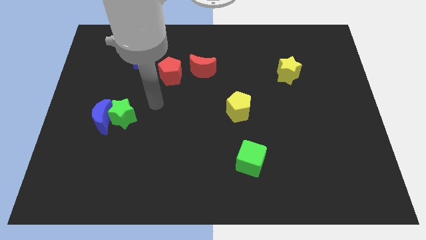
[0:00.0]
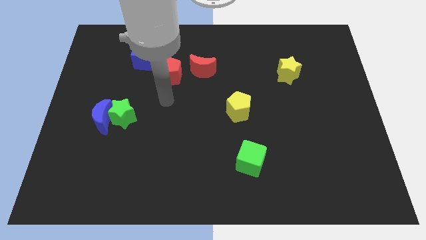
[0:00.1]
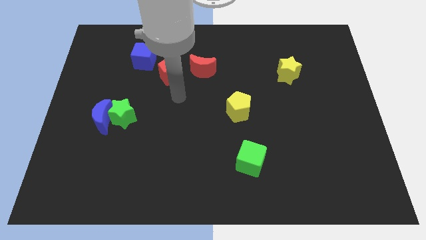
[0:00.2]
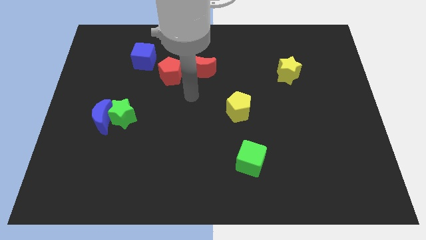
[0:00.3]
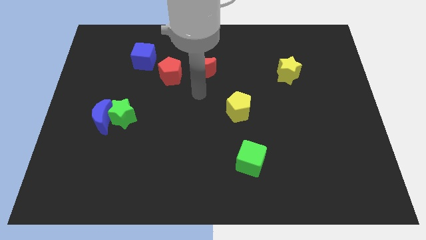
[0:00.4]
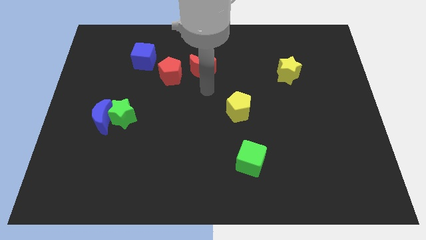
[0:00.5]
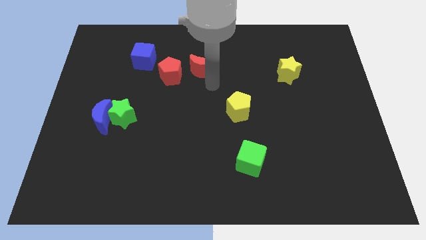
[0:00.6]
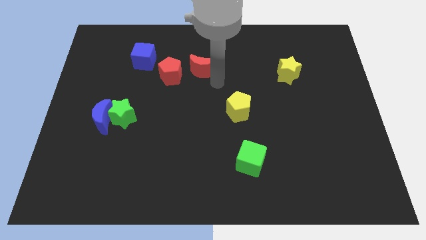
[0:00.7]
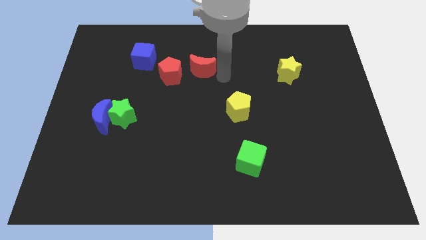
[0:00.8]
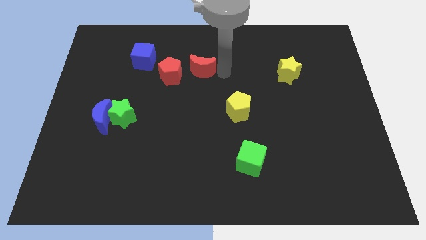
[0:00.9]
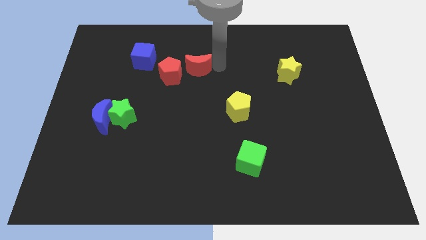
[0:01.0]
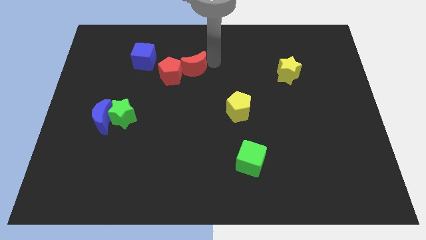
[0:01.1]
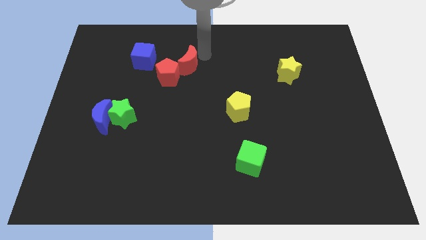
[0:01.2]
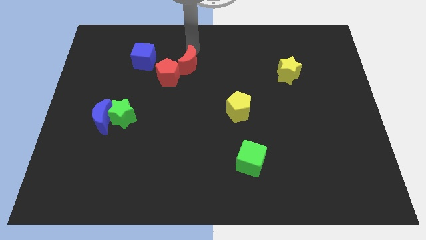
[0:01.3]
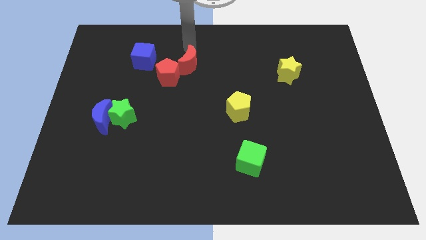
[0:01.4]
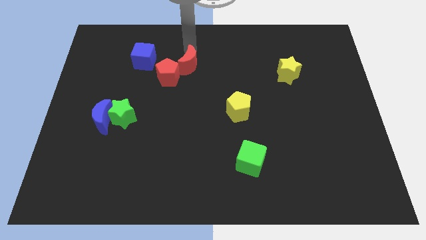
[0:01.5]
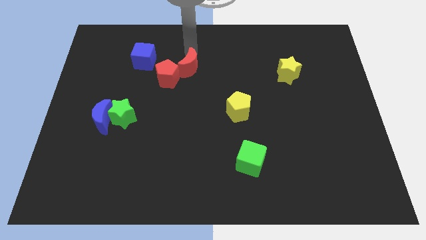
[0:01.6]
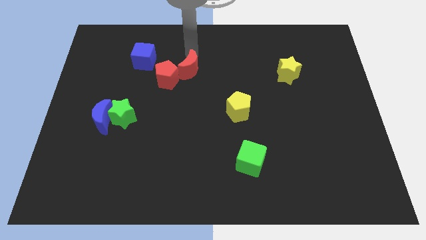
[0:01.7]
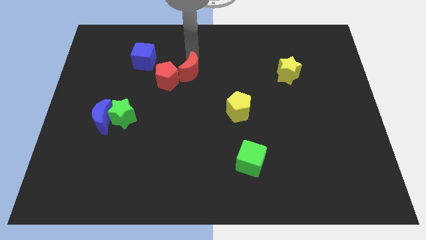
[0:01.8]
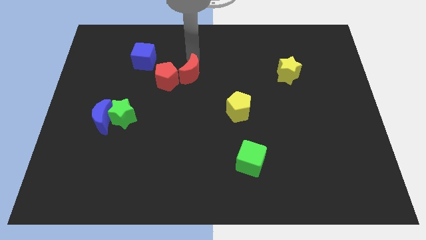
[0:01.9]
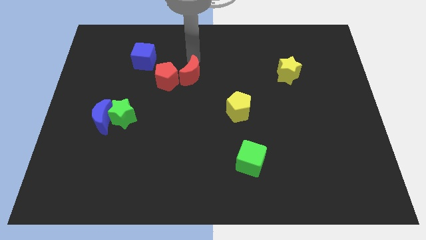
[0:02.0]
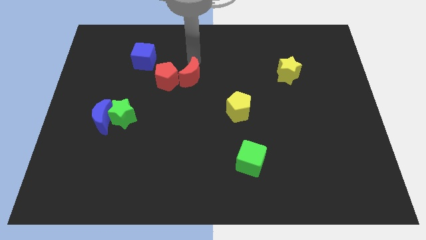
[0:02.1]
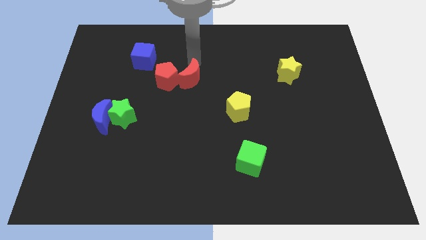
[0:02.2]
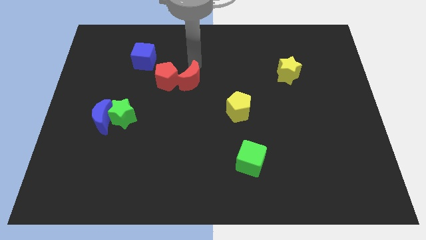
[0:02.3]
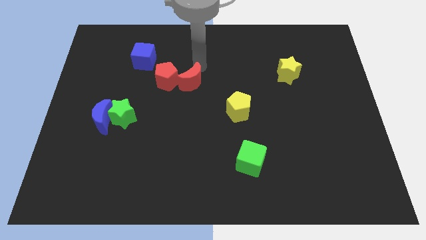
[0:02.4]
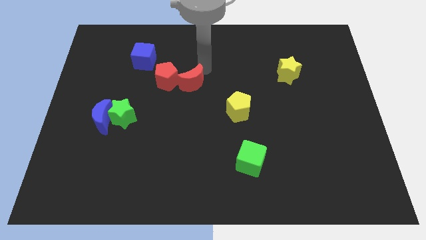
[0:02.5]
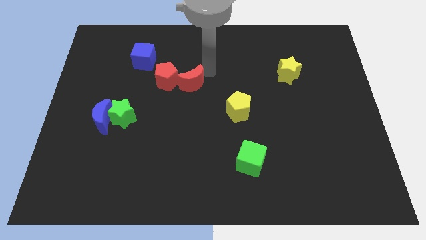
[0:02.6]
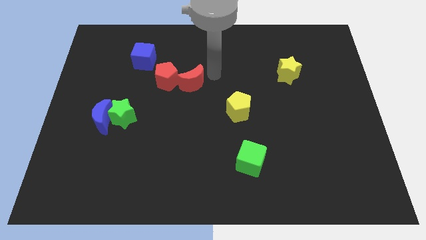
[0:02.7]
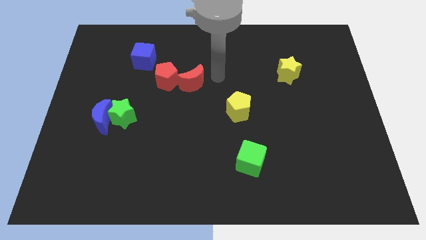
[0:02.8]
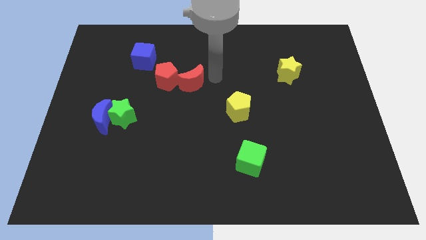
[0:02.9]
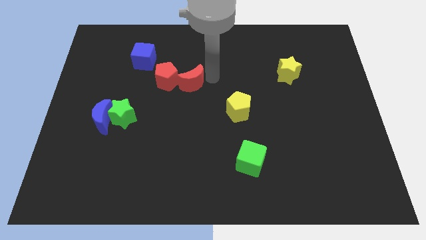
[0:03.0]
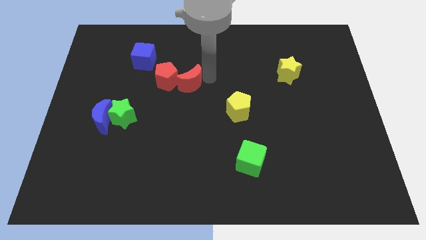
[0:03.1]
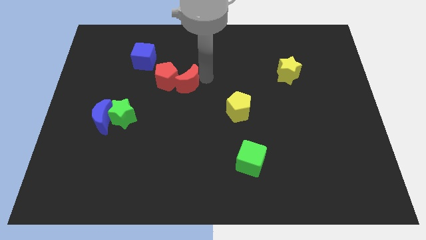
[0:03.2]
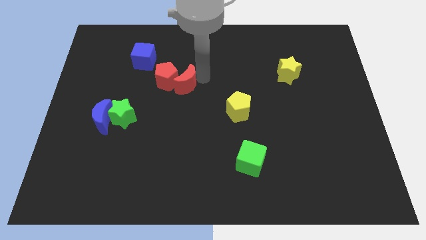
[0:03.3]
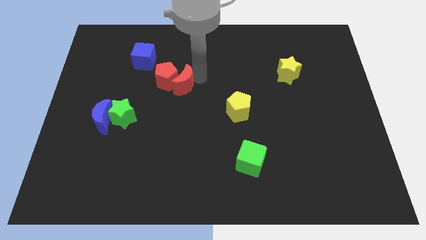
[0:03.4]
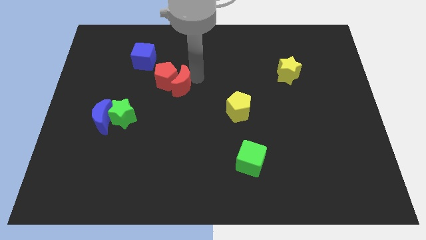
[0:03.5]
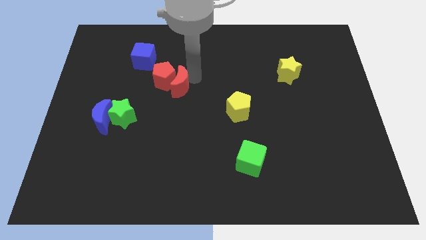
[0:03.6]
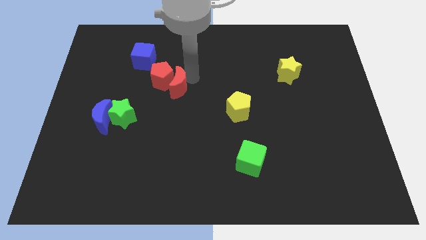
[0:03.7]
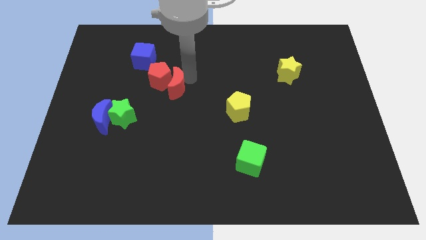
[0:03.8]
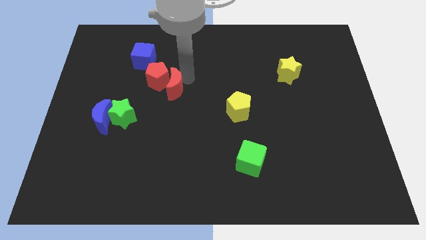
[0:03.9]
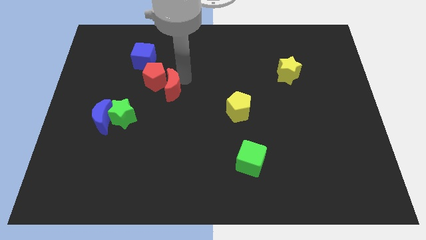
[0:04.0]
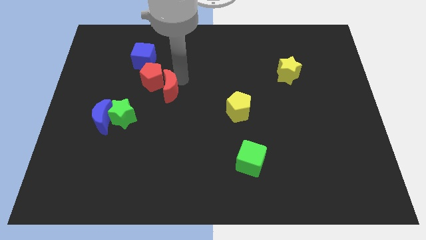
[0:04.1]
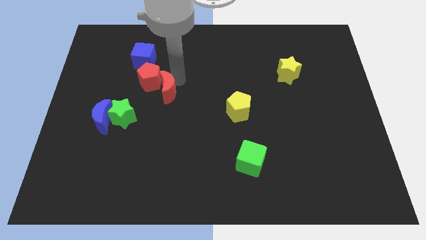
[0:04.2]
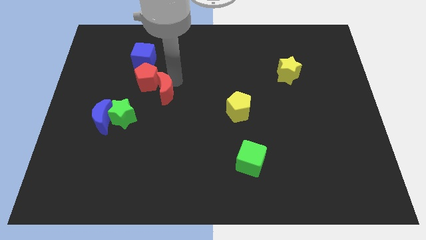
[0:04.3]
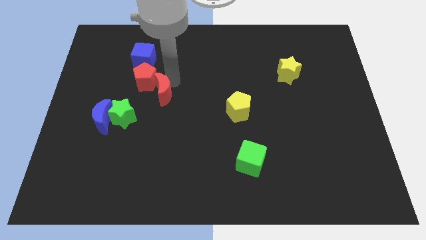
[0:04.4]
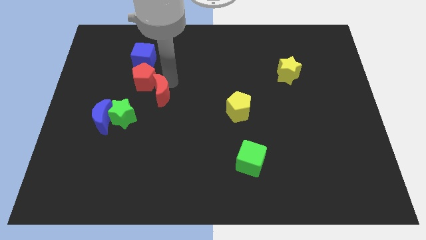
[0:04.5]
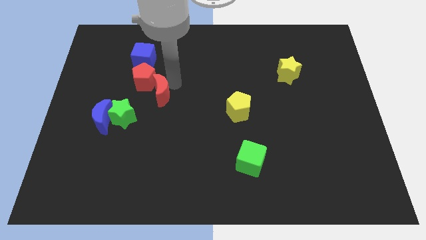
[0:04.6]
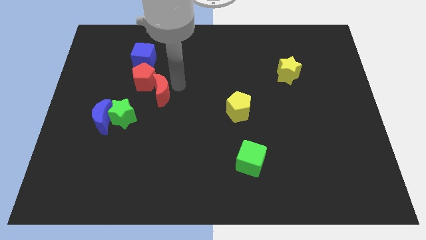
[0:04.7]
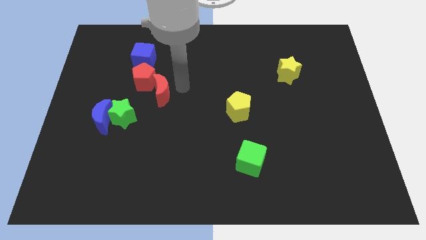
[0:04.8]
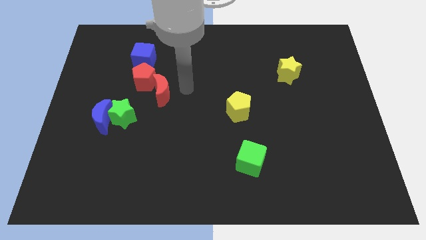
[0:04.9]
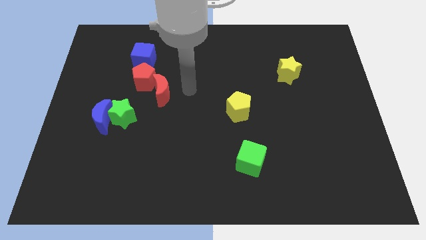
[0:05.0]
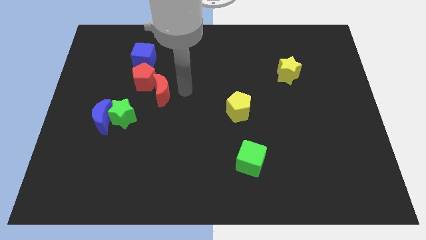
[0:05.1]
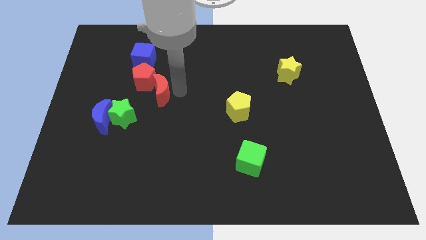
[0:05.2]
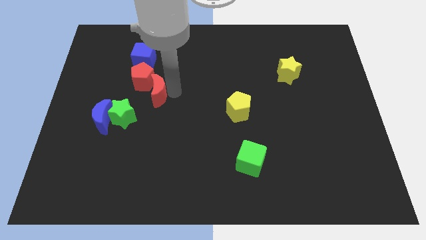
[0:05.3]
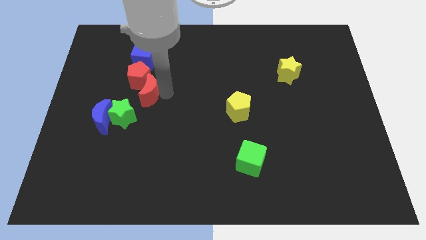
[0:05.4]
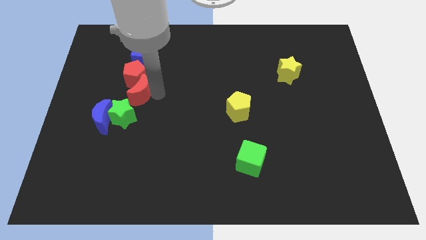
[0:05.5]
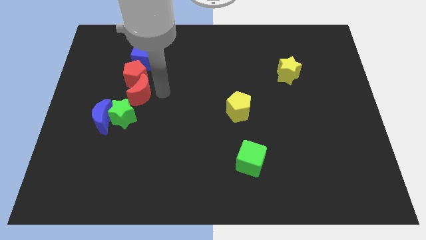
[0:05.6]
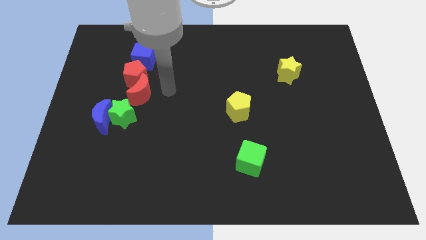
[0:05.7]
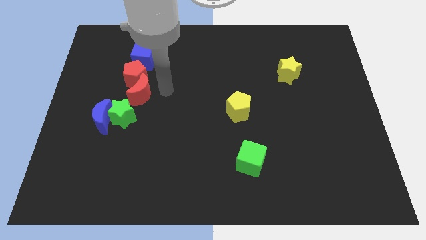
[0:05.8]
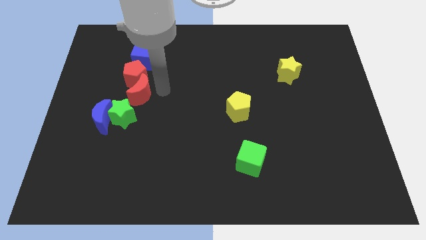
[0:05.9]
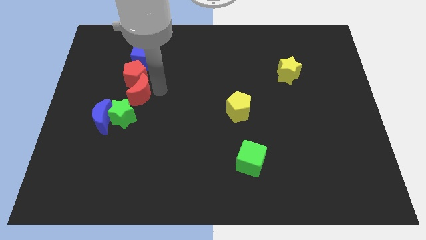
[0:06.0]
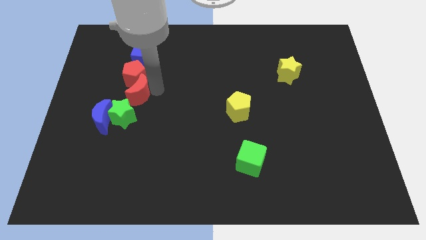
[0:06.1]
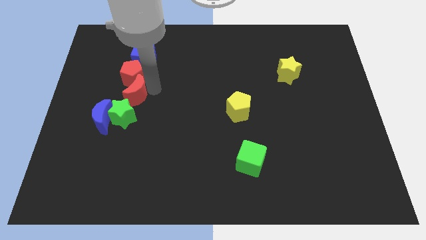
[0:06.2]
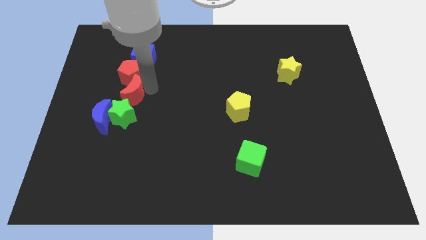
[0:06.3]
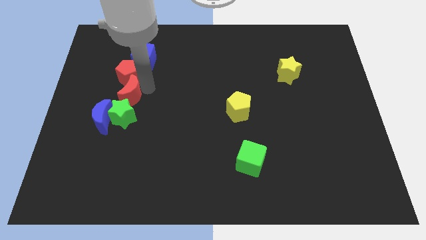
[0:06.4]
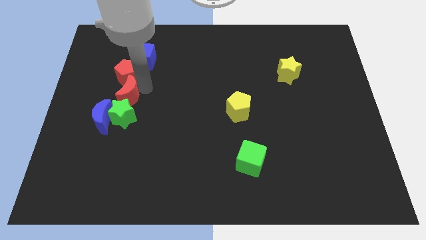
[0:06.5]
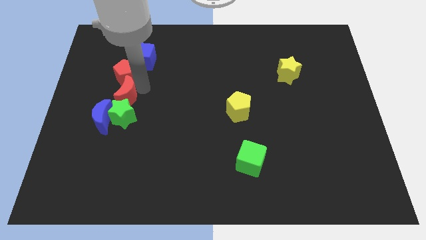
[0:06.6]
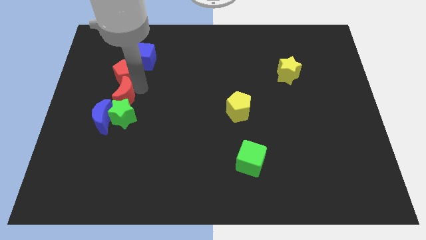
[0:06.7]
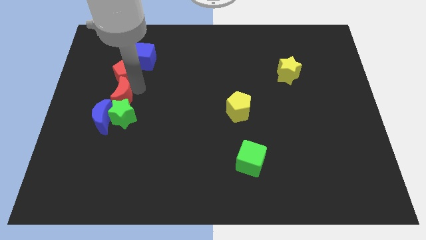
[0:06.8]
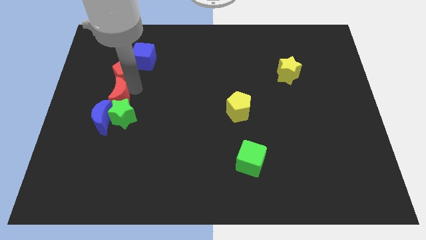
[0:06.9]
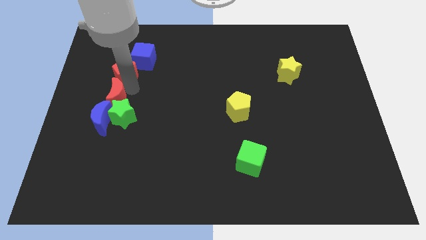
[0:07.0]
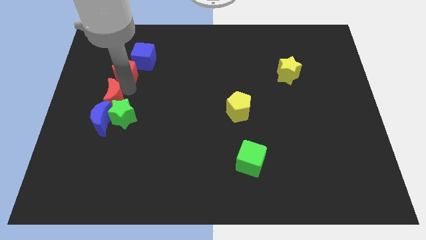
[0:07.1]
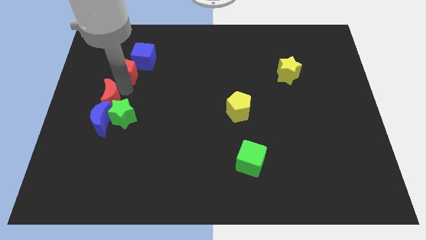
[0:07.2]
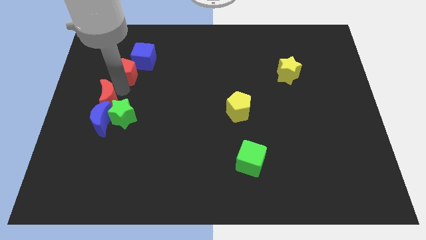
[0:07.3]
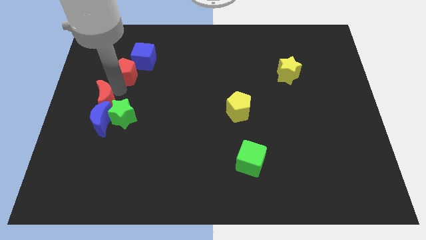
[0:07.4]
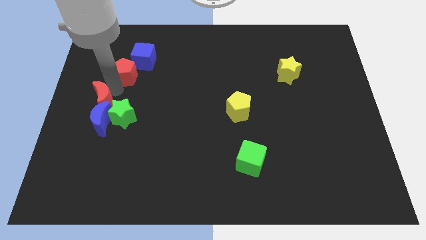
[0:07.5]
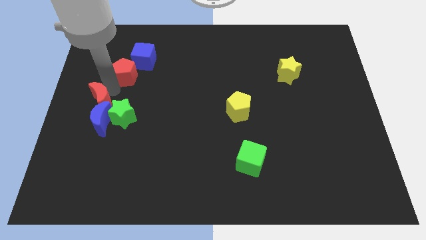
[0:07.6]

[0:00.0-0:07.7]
push the red moon next to the blue moon
